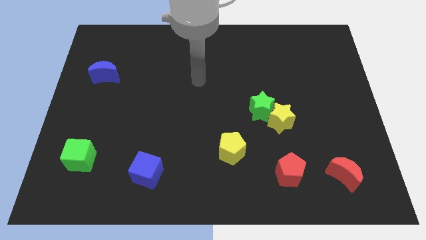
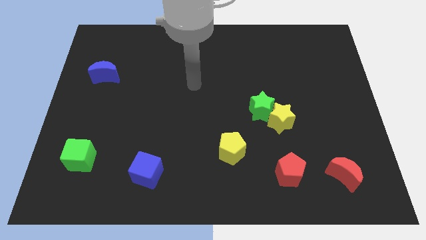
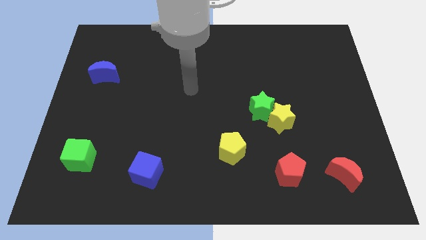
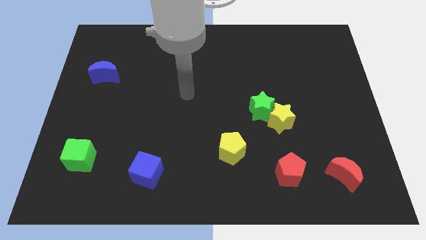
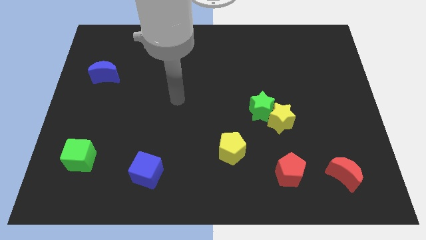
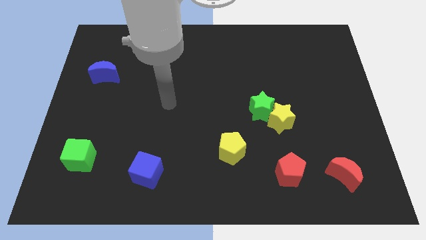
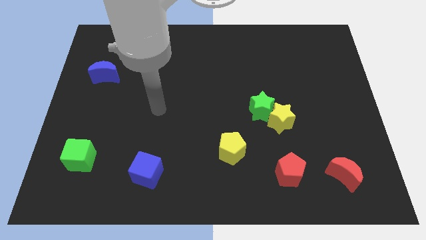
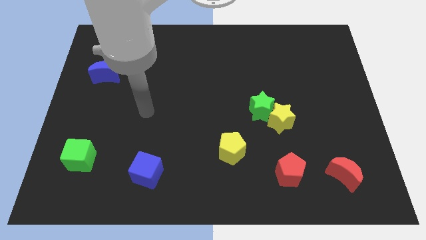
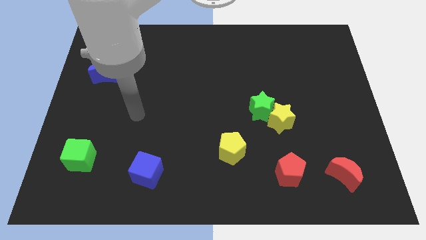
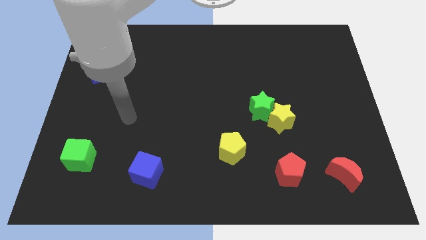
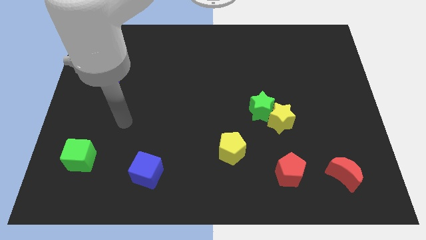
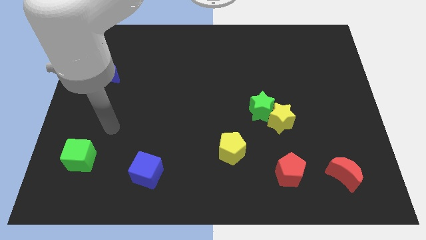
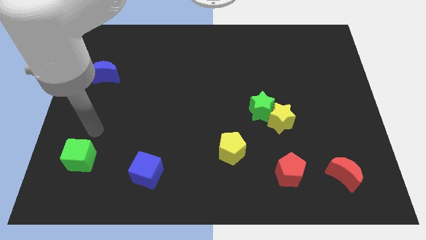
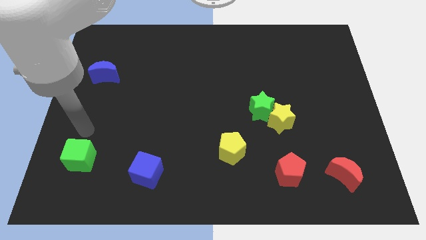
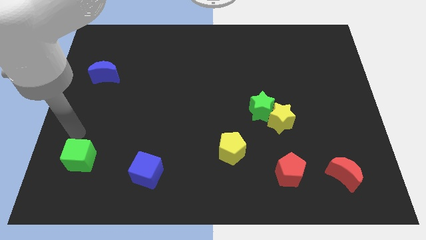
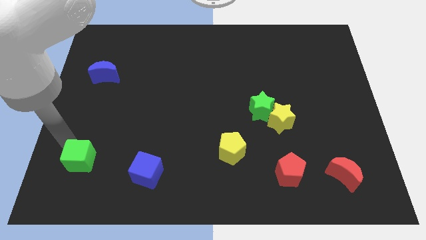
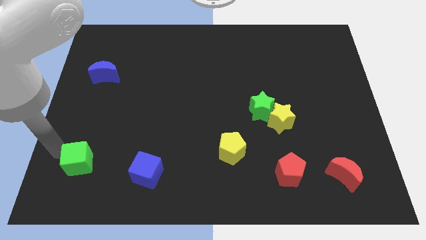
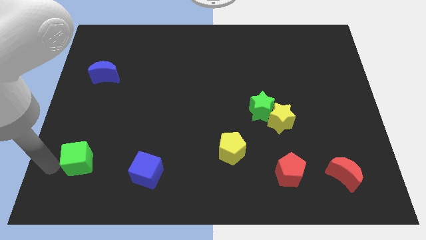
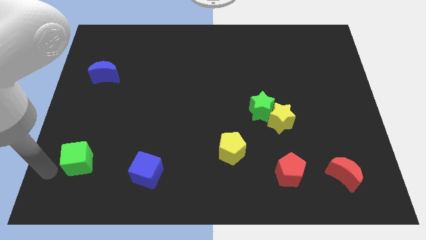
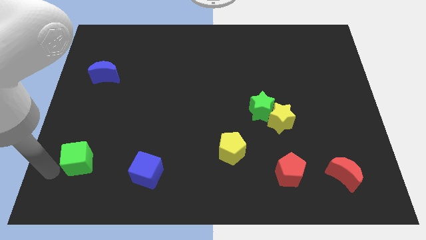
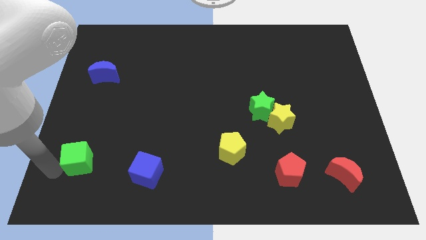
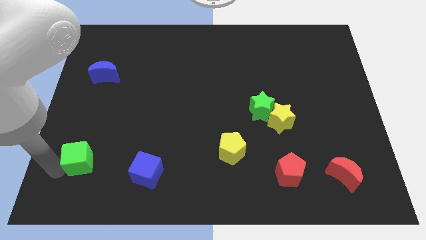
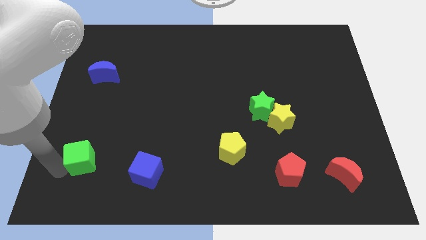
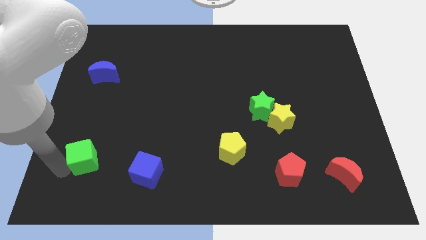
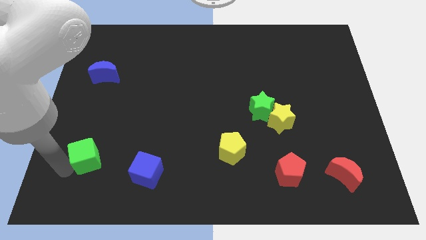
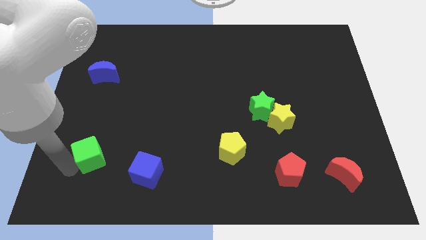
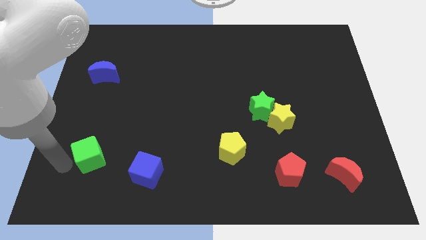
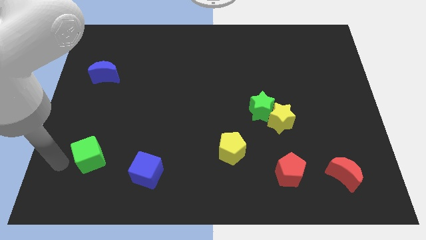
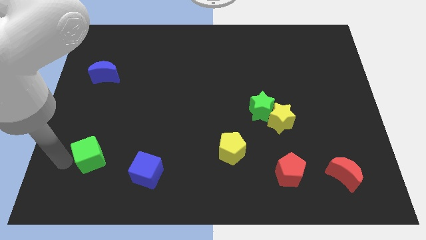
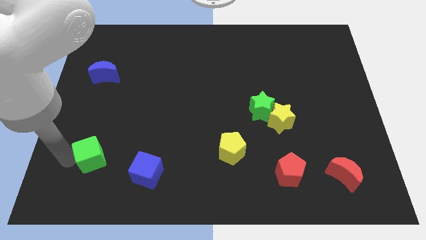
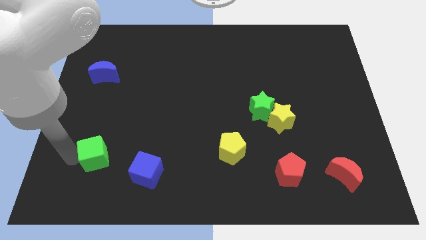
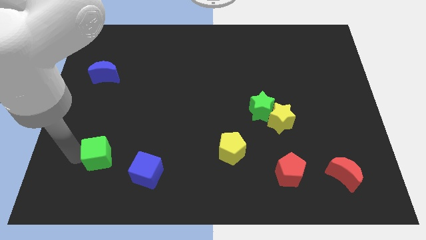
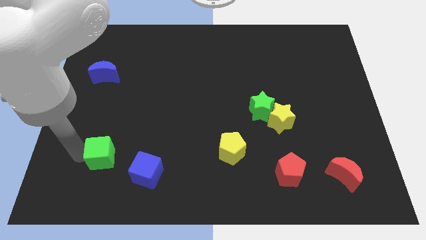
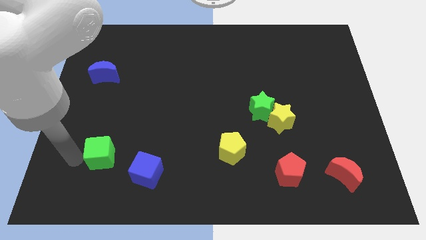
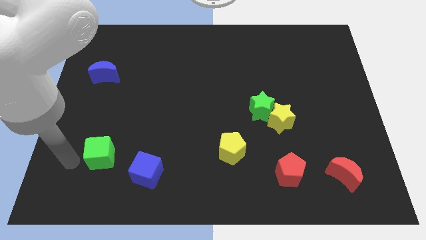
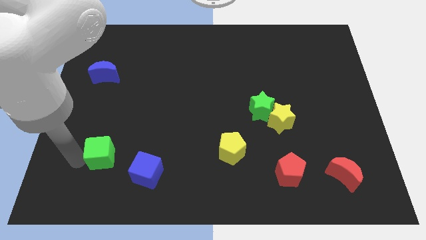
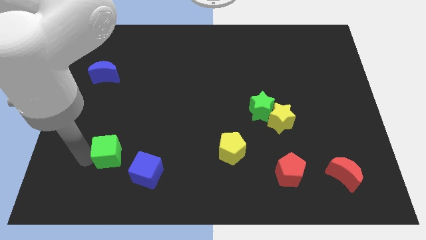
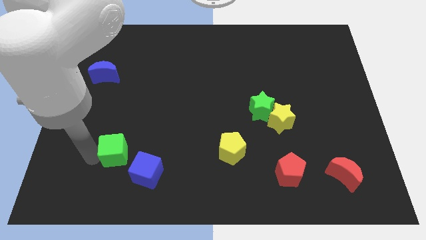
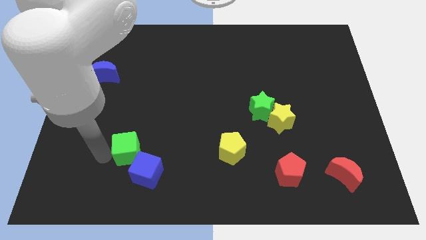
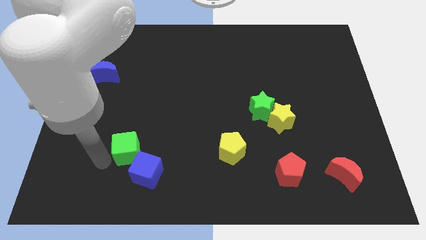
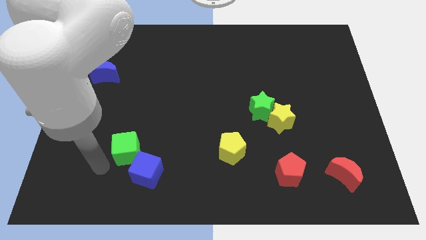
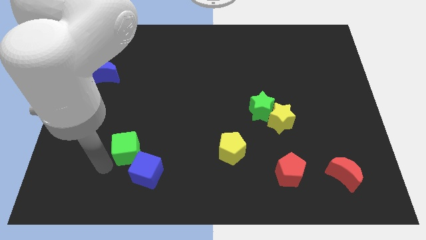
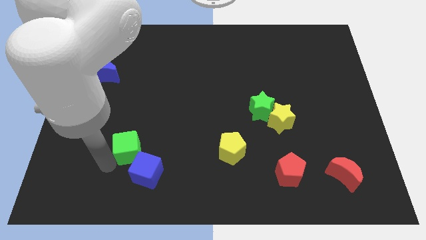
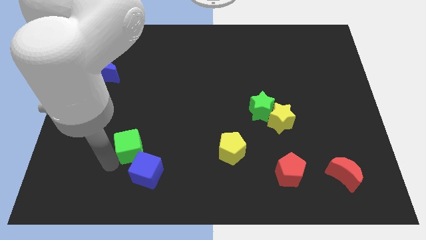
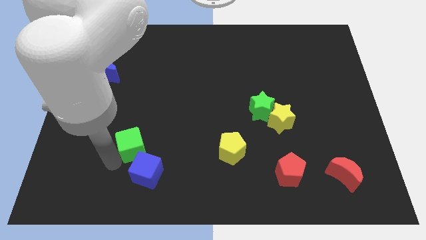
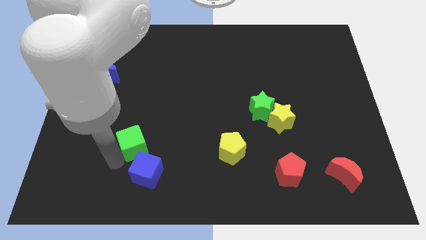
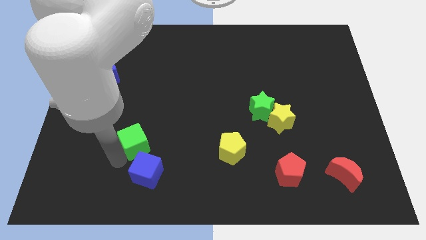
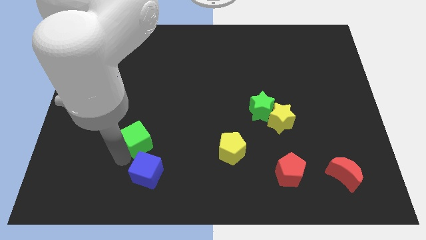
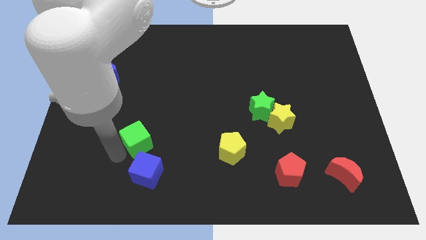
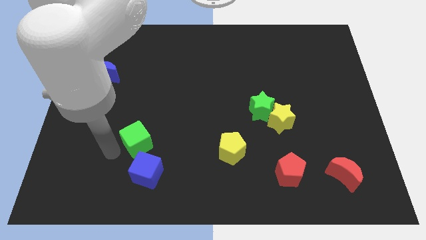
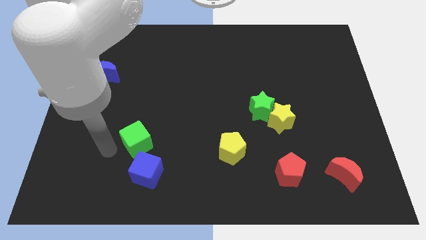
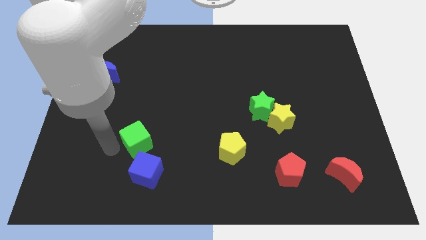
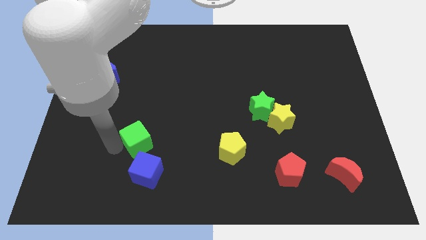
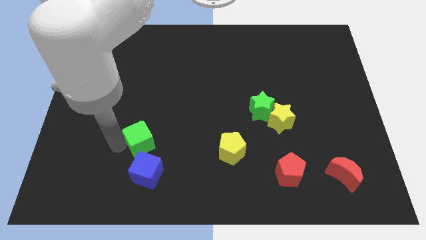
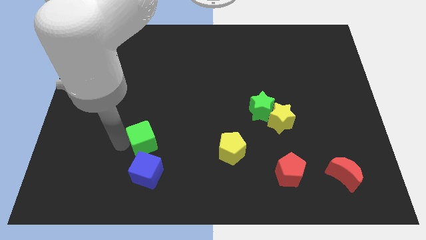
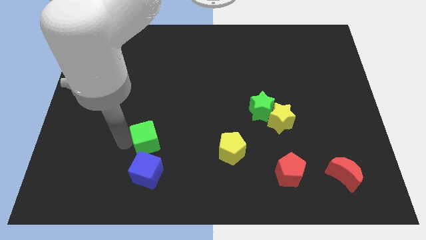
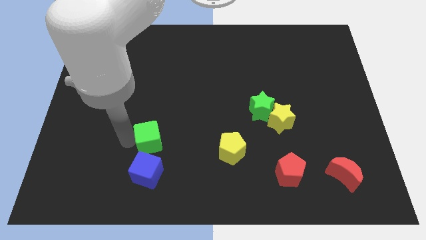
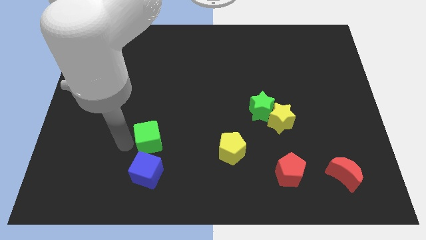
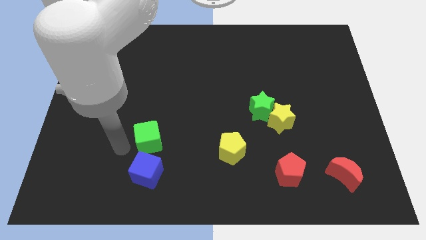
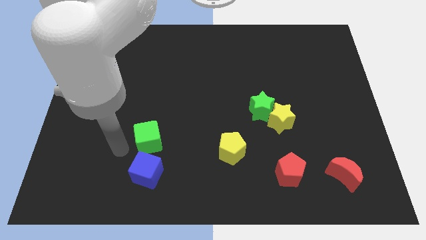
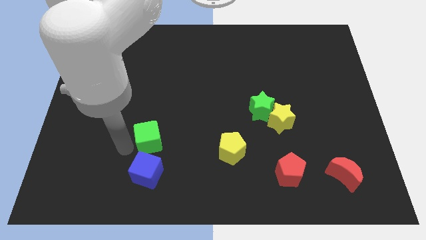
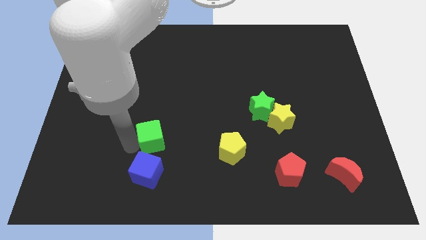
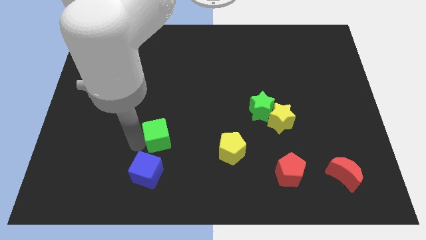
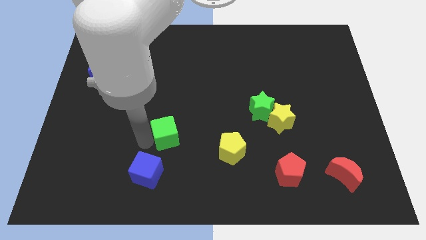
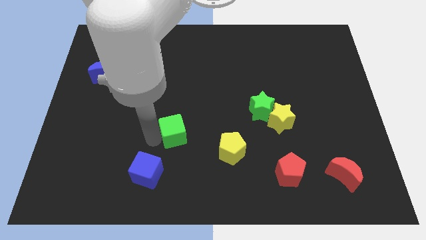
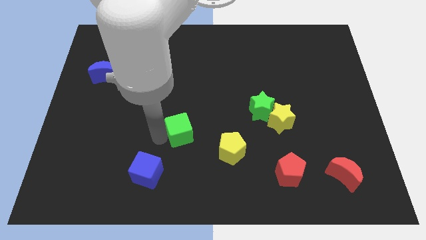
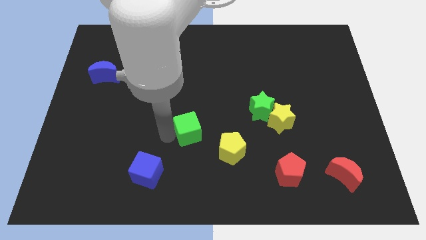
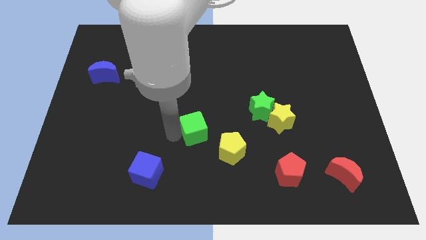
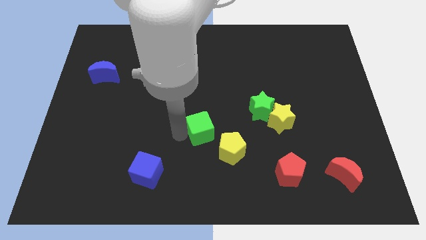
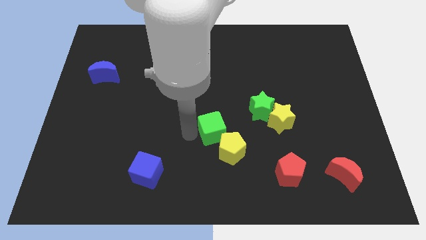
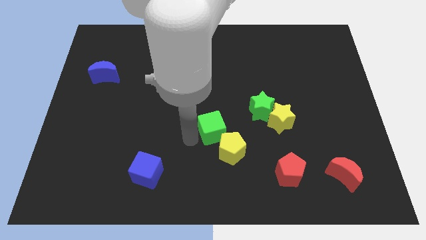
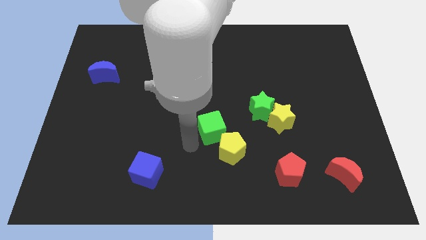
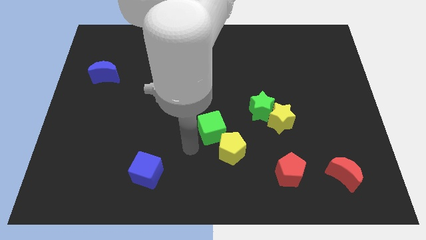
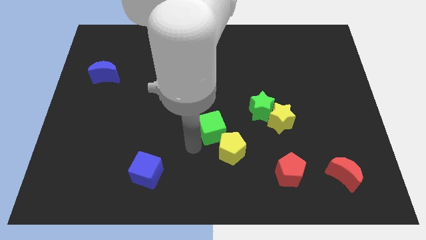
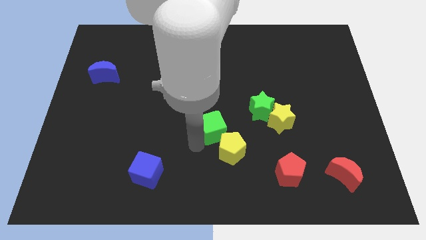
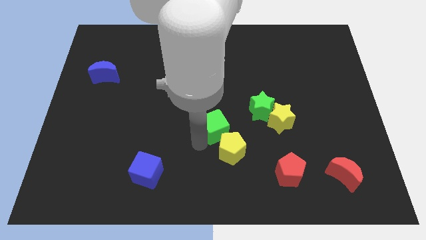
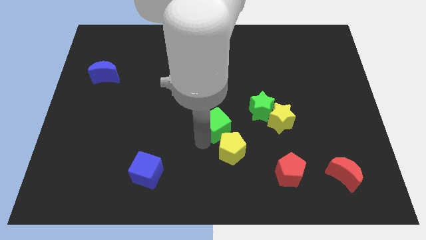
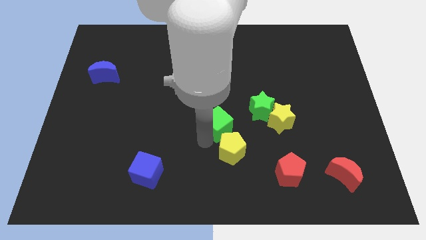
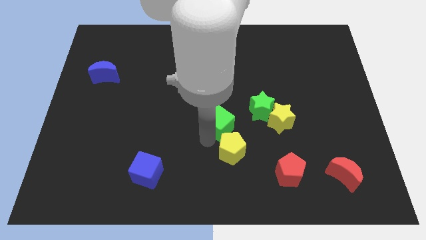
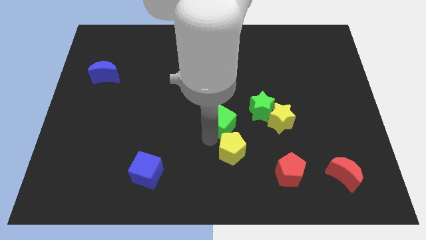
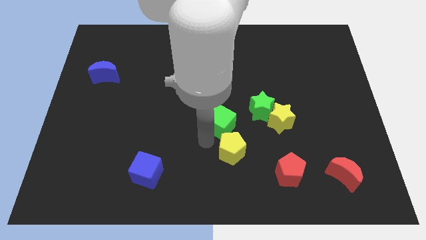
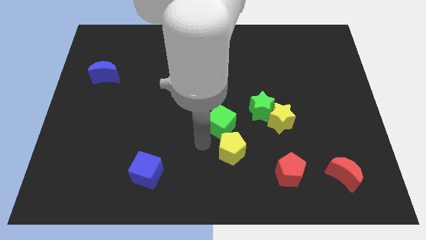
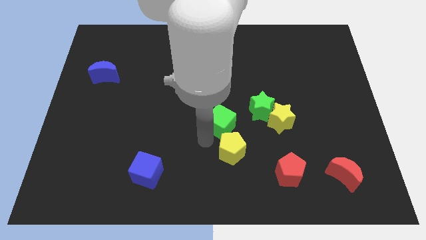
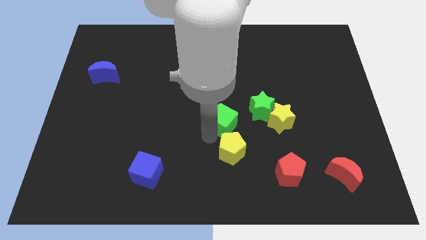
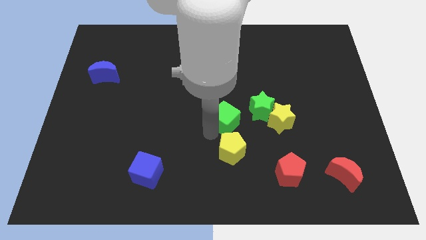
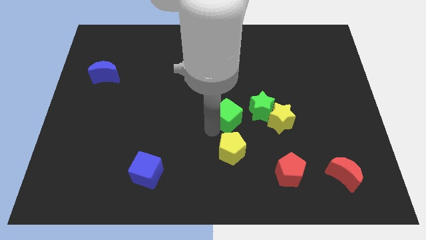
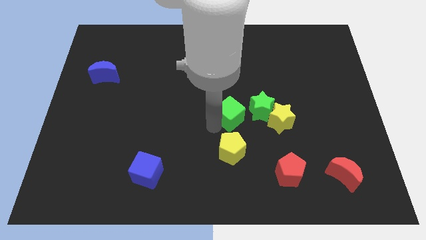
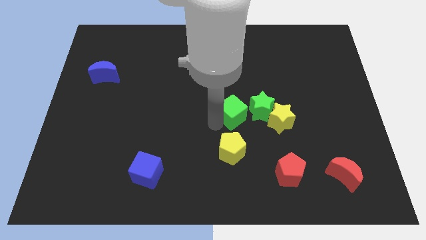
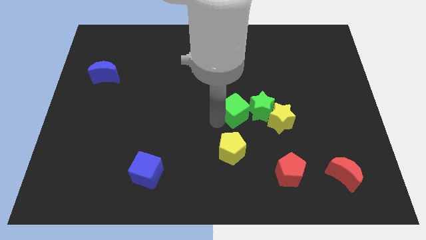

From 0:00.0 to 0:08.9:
push the green cube to the green star
